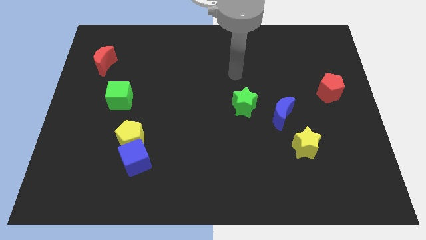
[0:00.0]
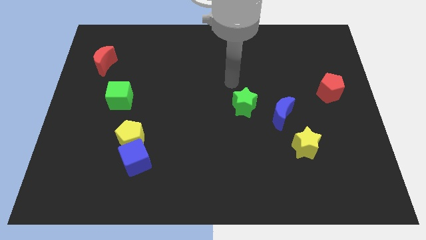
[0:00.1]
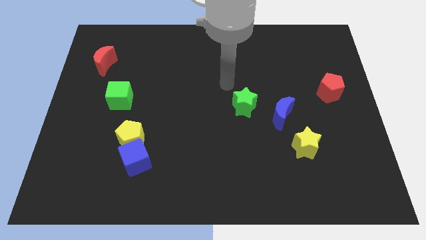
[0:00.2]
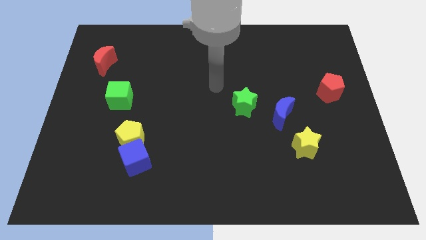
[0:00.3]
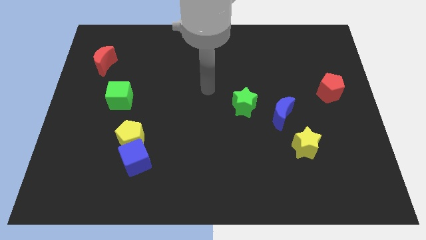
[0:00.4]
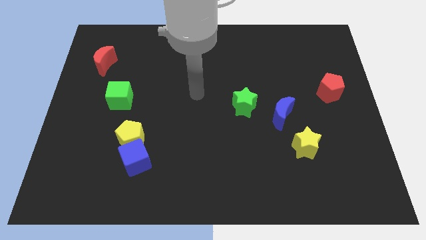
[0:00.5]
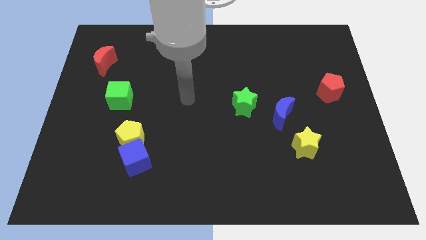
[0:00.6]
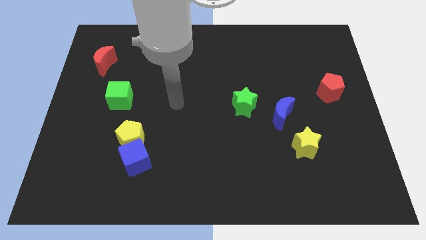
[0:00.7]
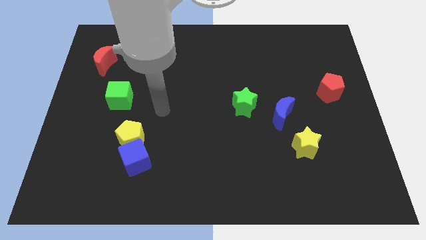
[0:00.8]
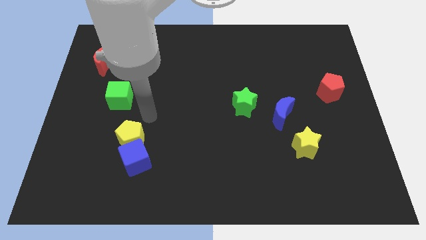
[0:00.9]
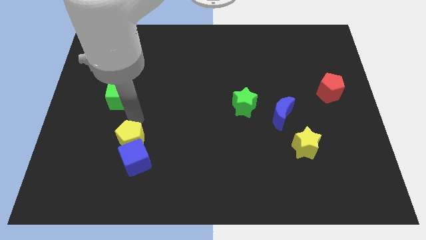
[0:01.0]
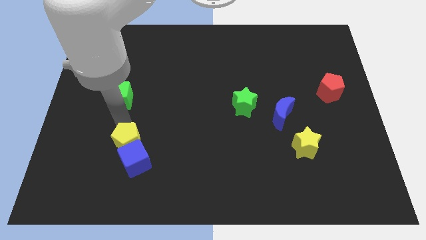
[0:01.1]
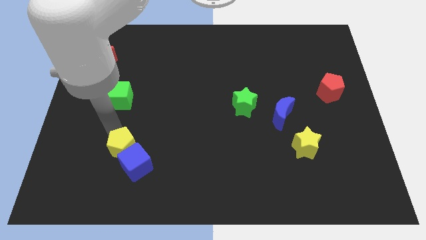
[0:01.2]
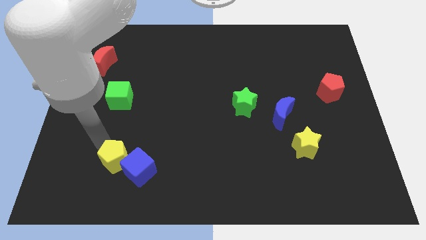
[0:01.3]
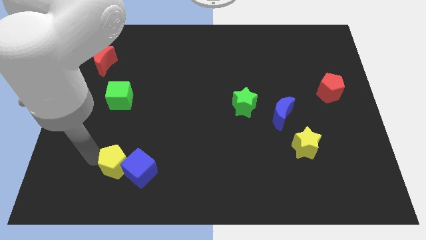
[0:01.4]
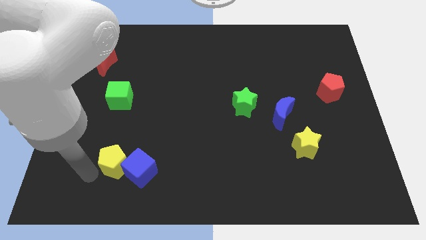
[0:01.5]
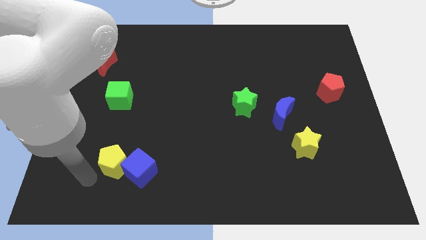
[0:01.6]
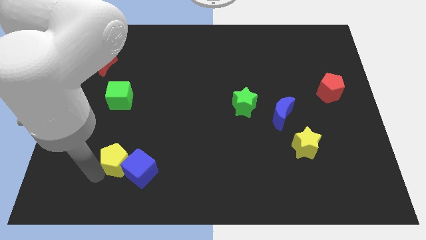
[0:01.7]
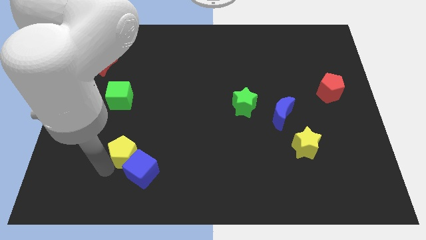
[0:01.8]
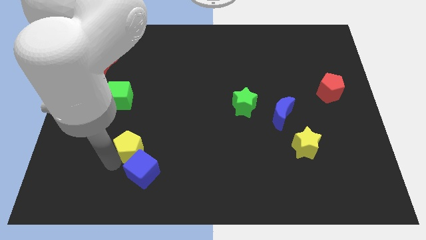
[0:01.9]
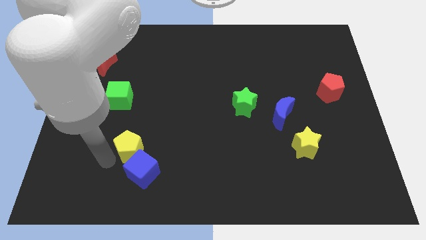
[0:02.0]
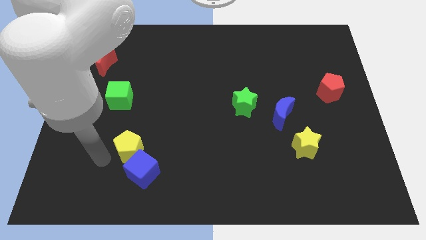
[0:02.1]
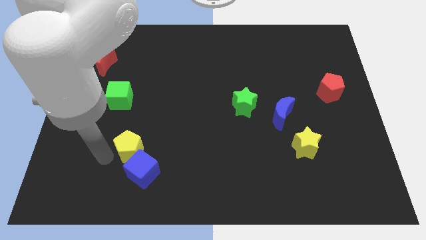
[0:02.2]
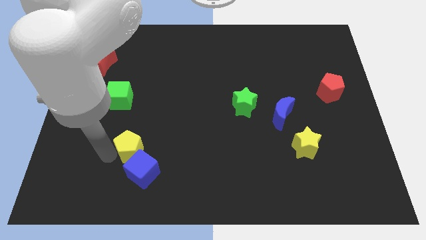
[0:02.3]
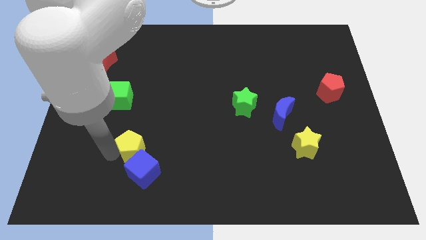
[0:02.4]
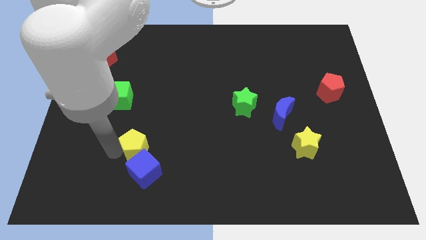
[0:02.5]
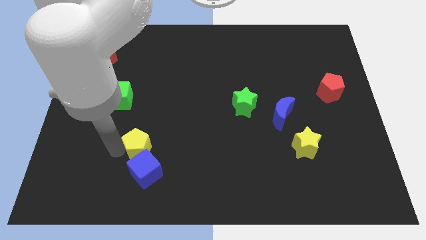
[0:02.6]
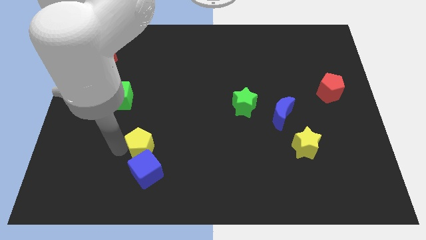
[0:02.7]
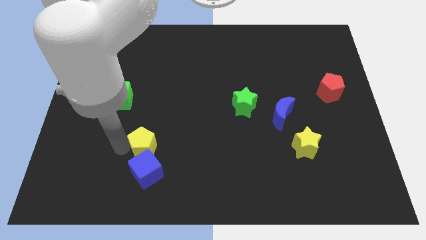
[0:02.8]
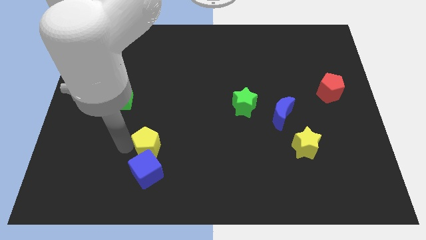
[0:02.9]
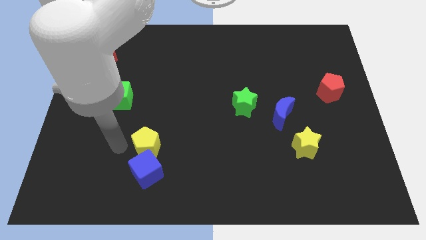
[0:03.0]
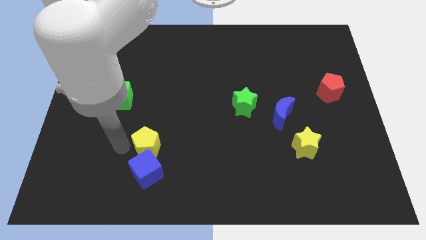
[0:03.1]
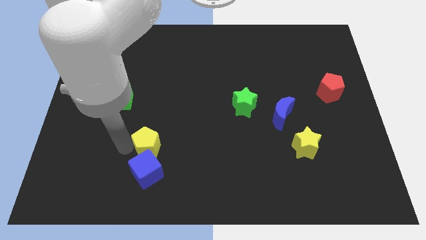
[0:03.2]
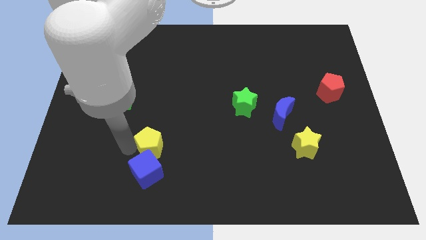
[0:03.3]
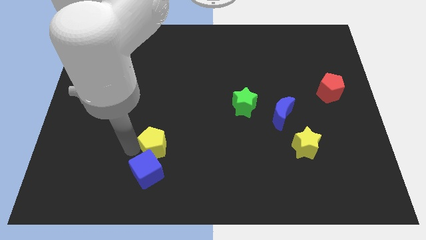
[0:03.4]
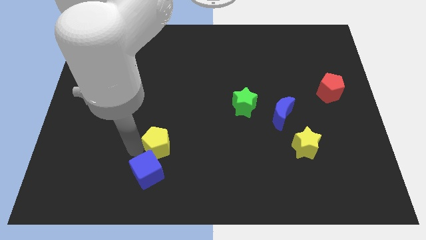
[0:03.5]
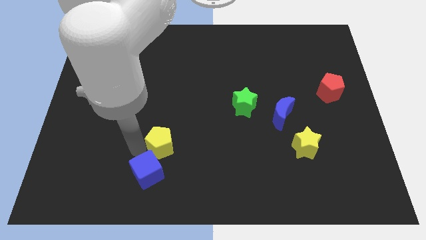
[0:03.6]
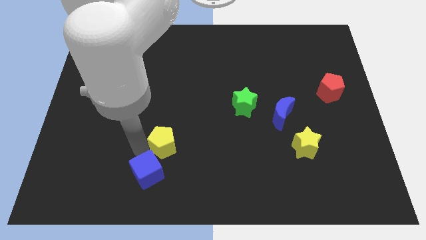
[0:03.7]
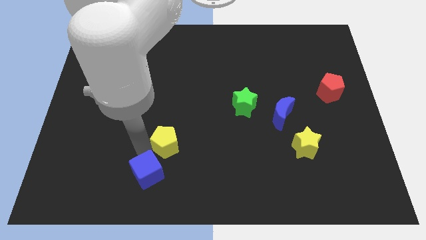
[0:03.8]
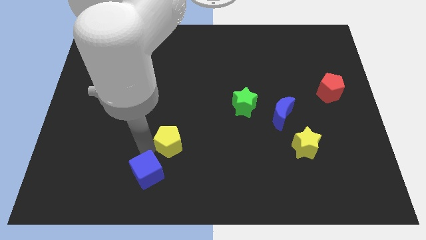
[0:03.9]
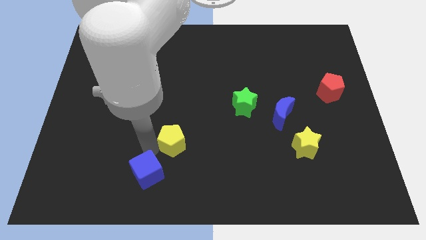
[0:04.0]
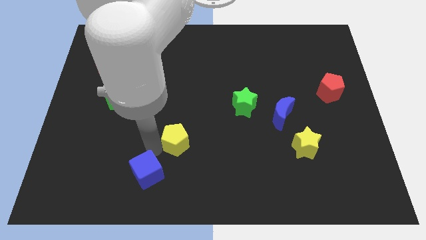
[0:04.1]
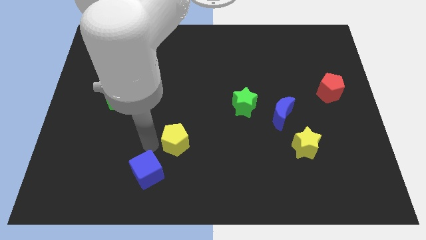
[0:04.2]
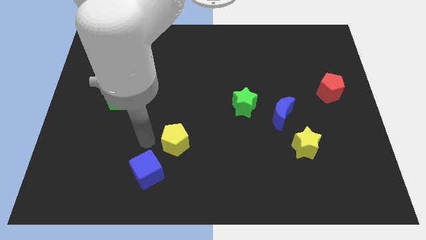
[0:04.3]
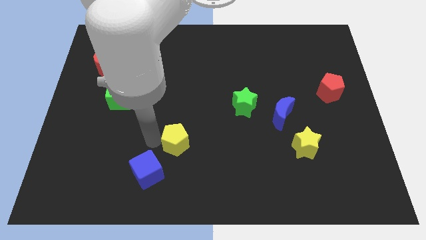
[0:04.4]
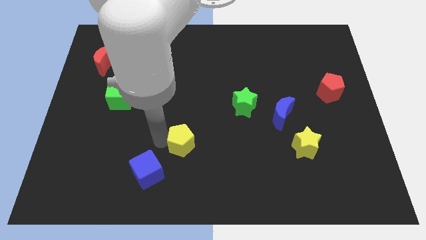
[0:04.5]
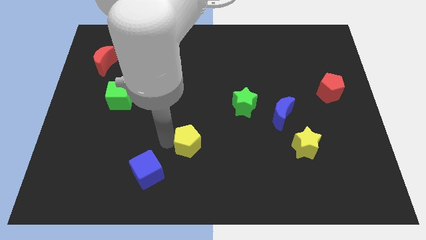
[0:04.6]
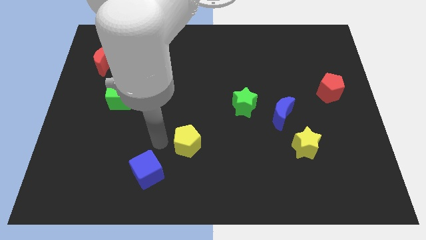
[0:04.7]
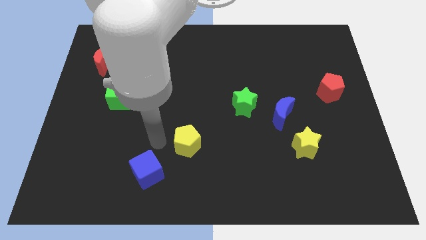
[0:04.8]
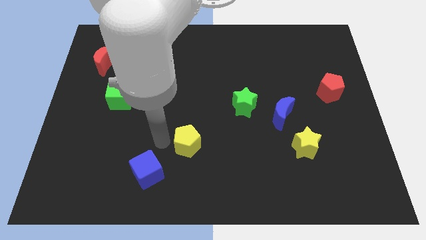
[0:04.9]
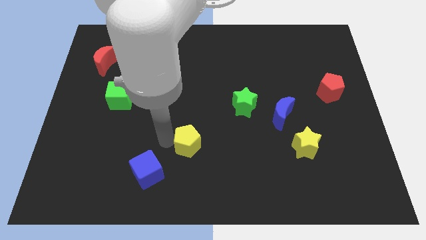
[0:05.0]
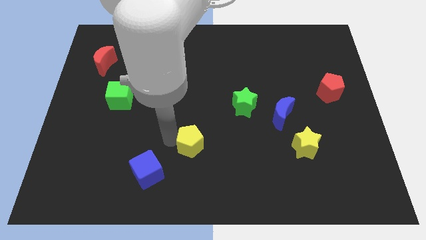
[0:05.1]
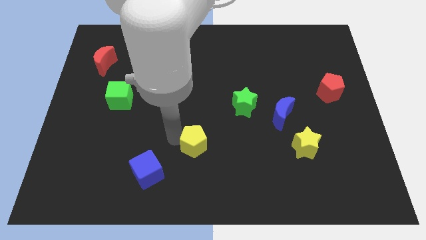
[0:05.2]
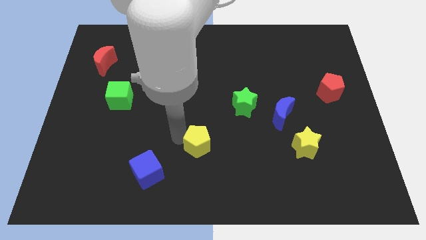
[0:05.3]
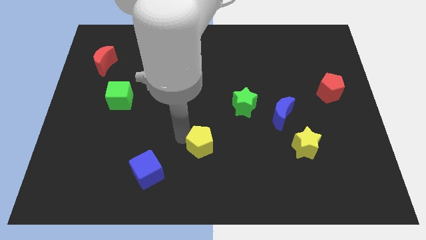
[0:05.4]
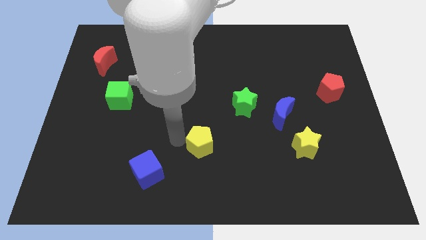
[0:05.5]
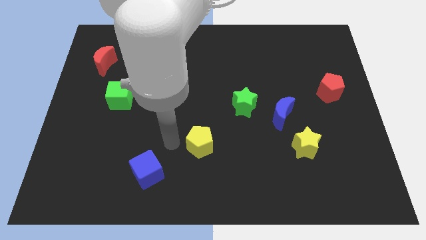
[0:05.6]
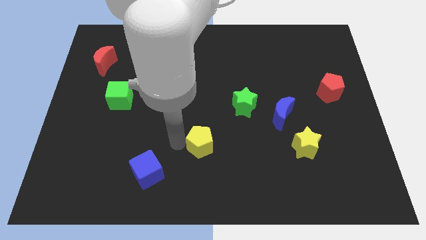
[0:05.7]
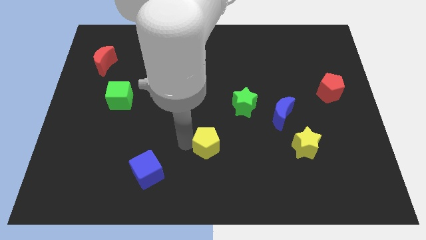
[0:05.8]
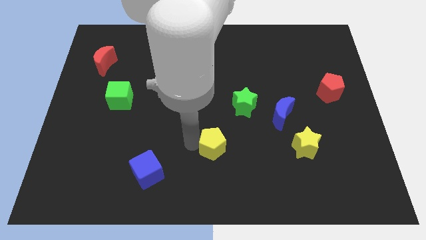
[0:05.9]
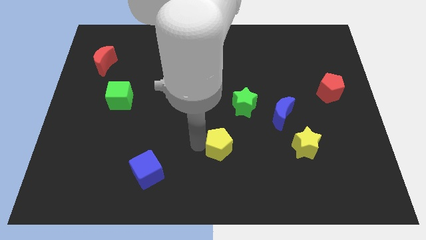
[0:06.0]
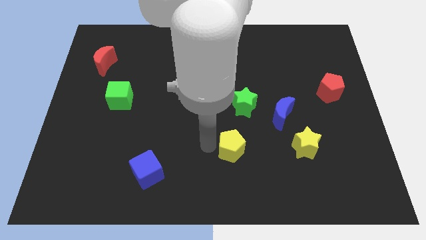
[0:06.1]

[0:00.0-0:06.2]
push the yellow pentagon right

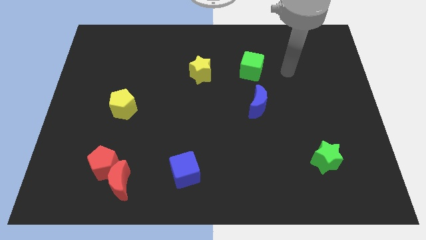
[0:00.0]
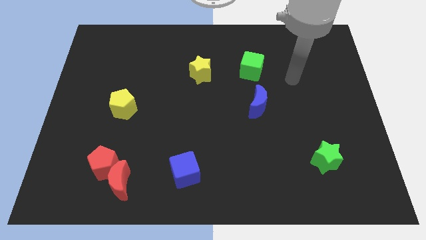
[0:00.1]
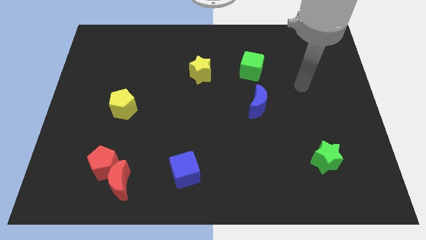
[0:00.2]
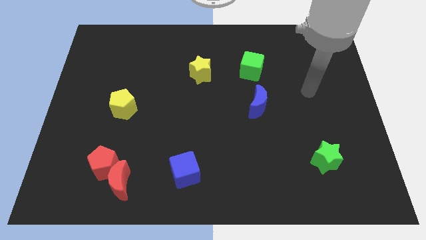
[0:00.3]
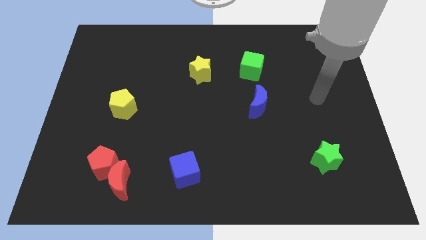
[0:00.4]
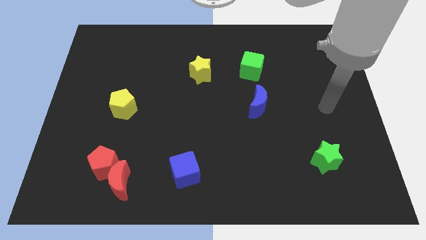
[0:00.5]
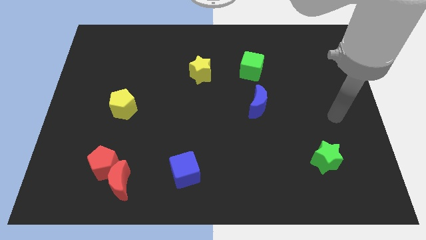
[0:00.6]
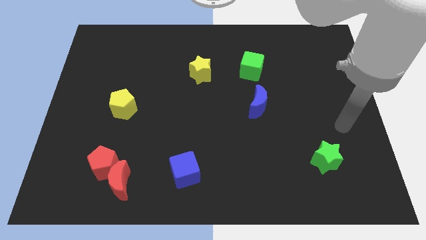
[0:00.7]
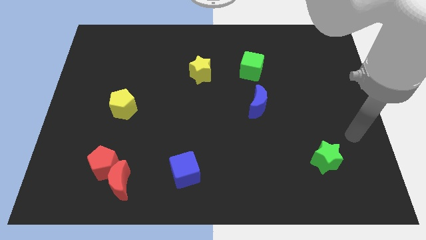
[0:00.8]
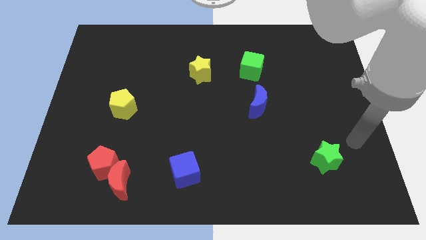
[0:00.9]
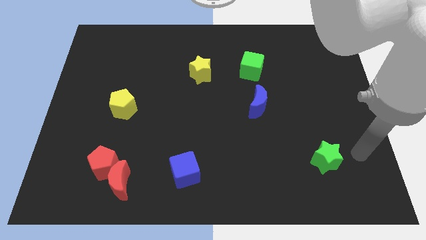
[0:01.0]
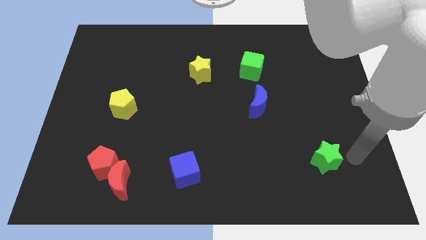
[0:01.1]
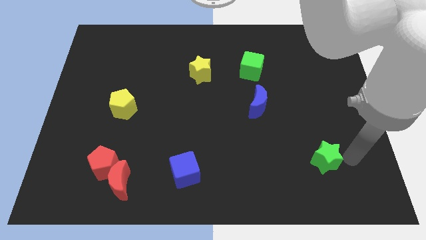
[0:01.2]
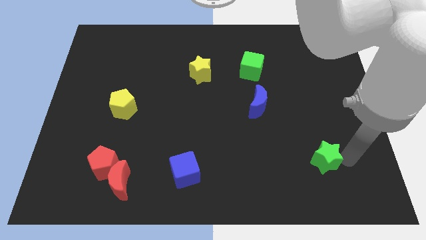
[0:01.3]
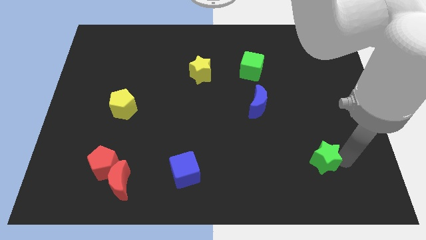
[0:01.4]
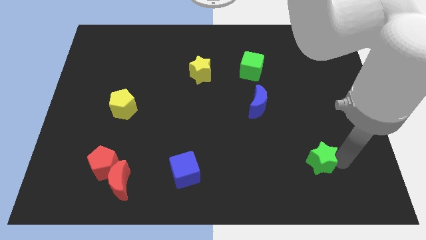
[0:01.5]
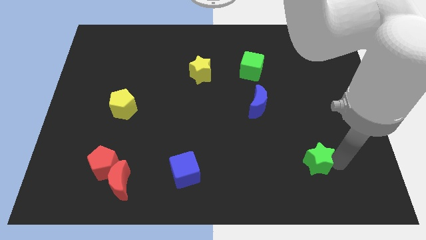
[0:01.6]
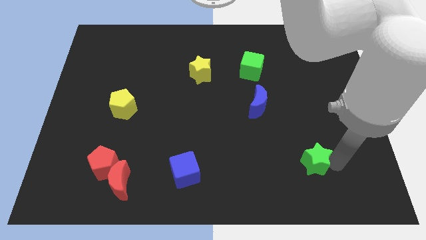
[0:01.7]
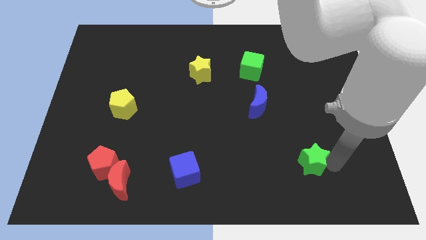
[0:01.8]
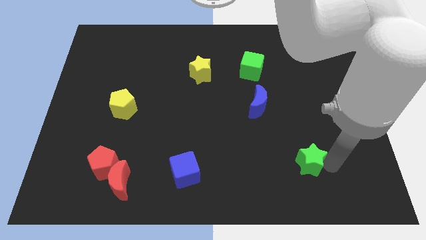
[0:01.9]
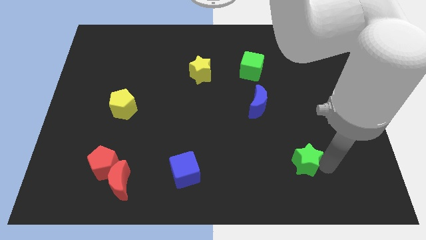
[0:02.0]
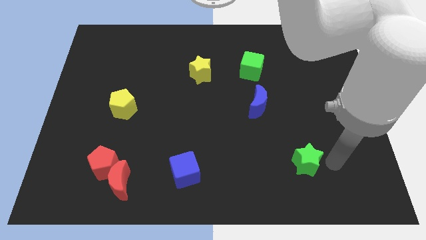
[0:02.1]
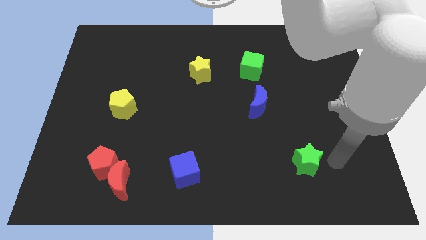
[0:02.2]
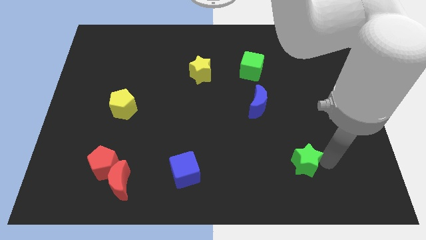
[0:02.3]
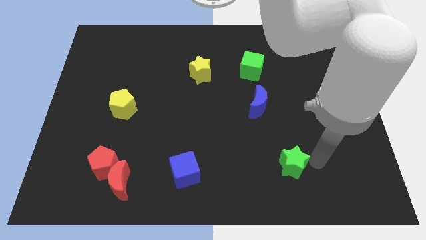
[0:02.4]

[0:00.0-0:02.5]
push the green star left a bit
